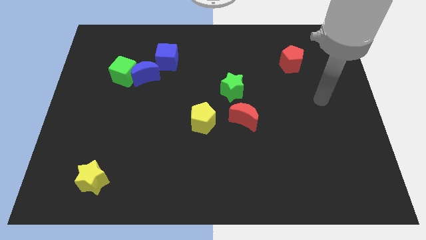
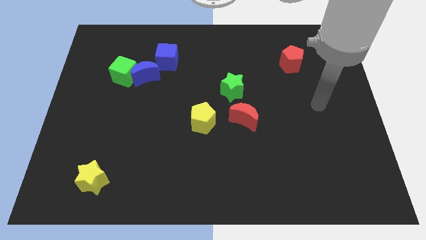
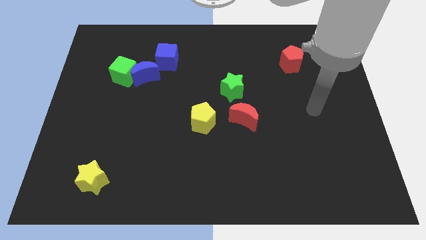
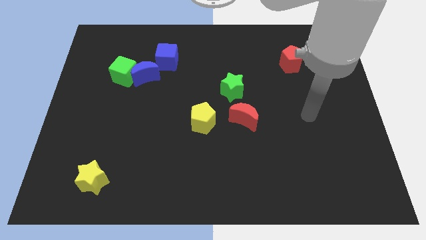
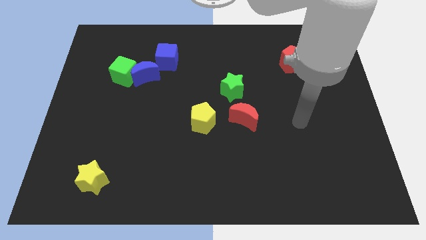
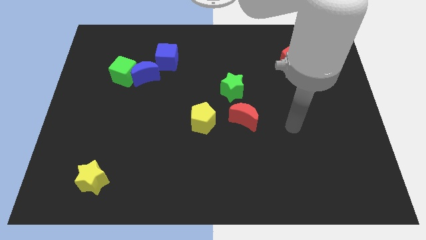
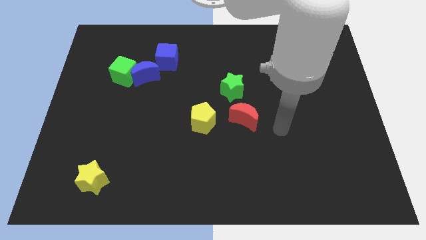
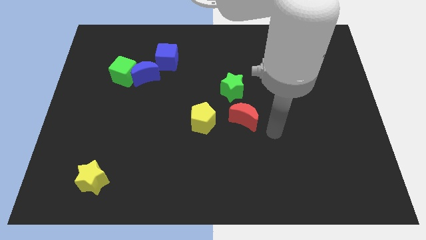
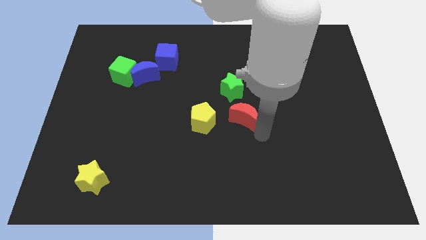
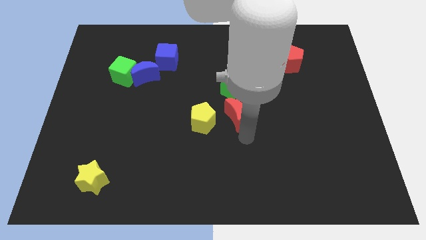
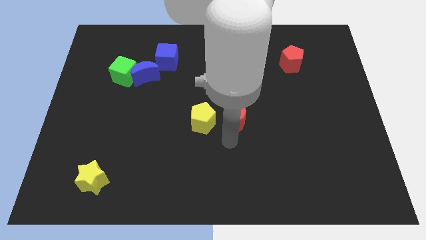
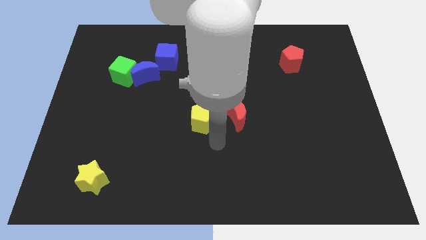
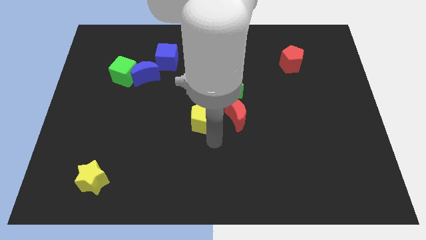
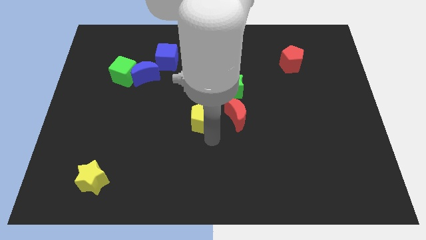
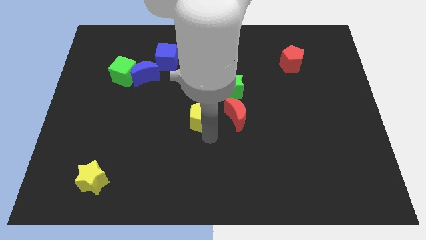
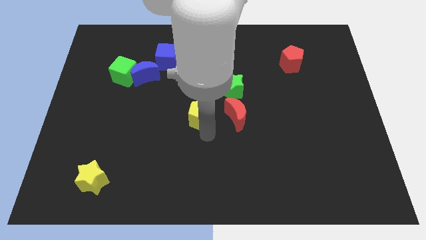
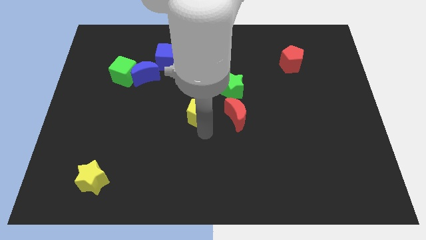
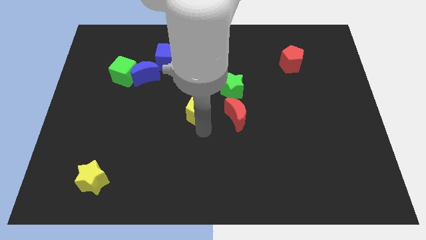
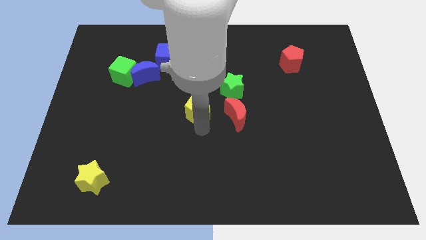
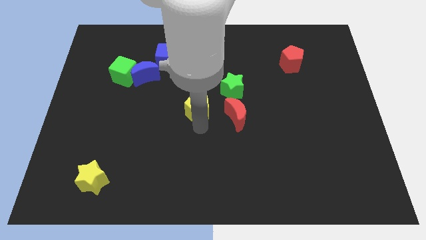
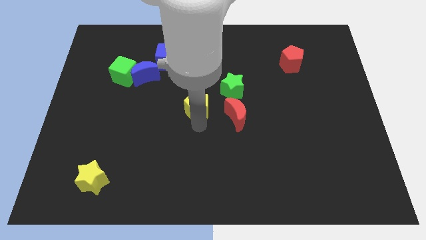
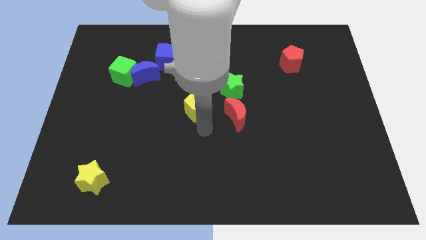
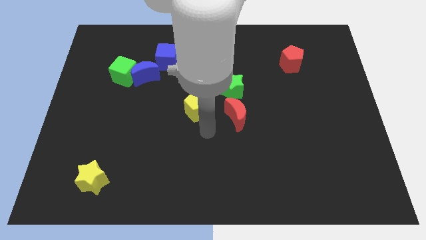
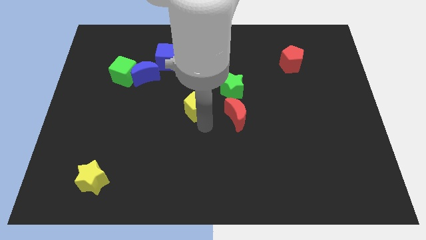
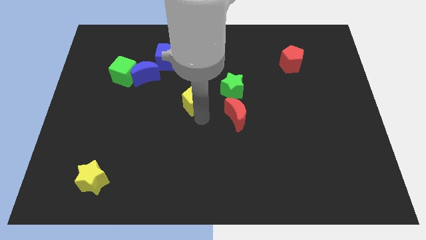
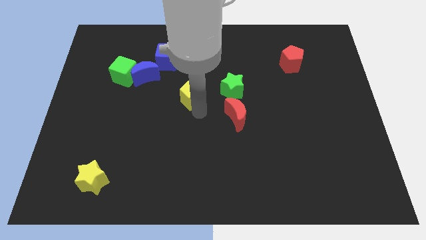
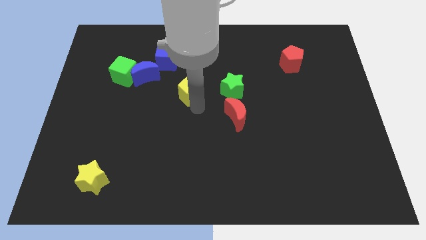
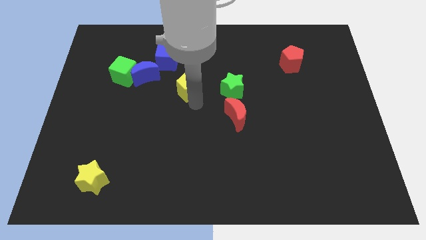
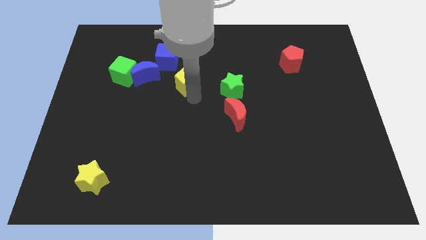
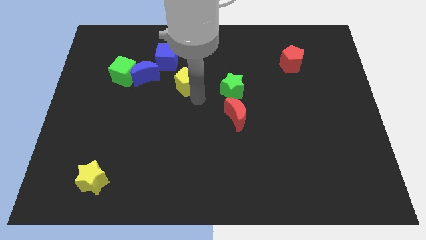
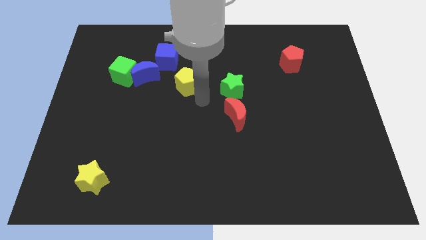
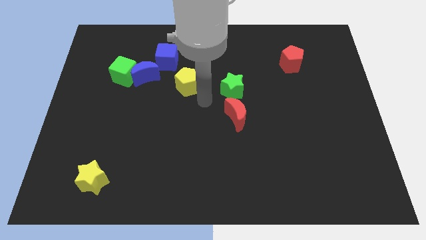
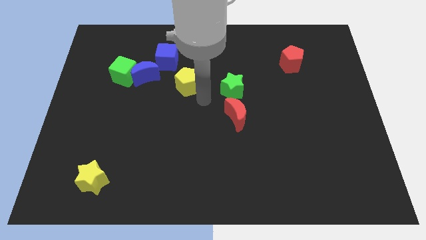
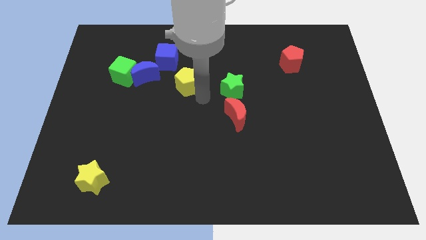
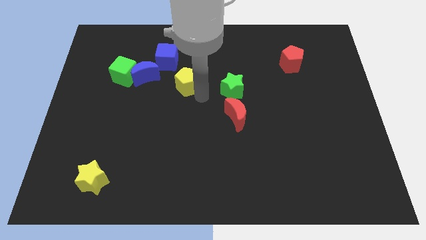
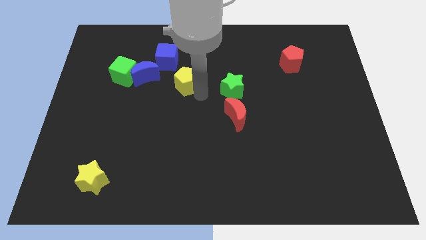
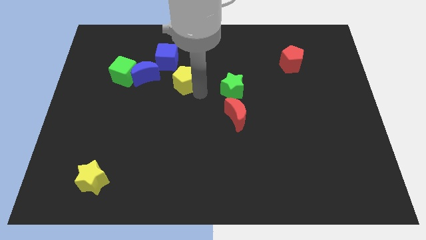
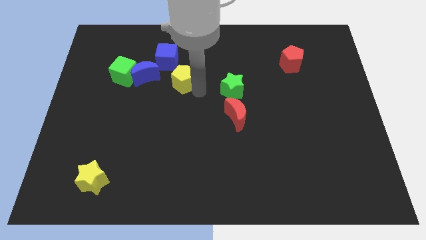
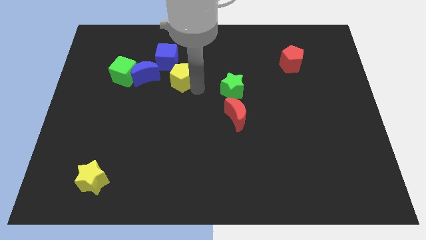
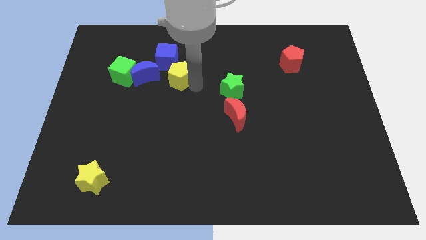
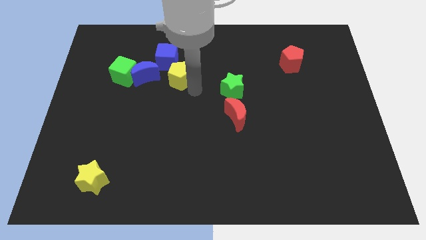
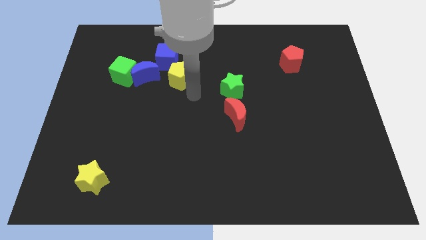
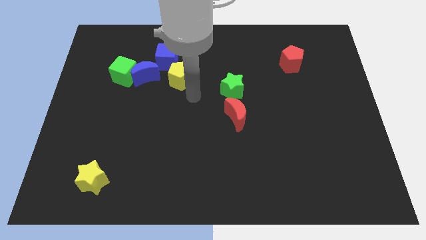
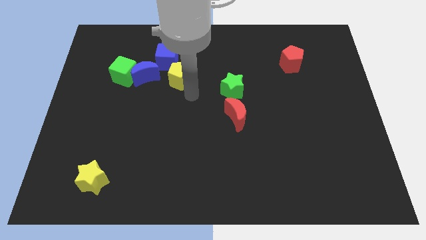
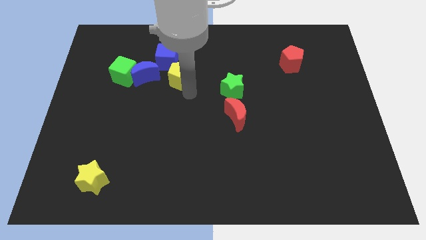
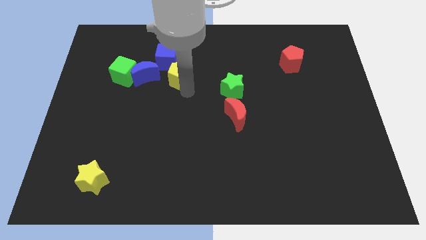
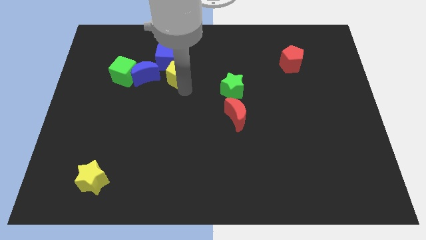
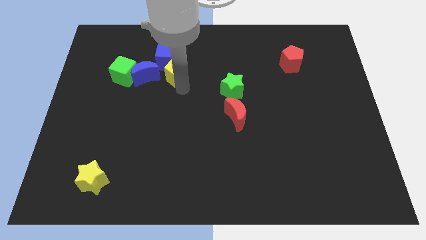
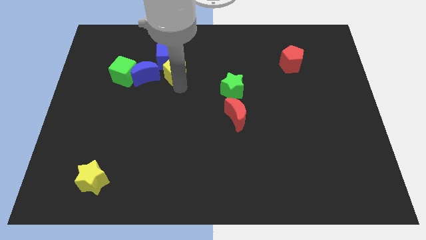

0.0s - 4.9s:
move the yellow pentagon to the blue cube

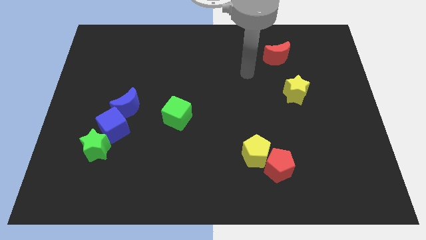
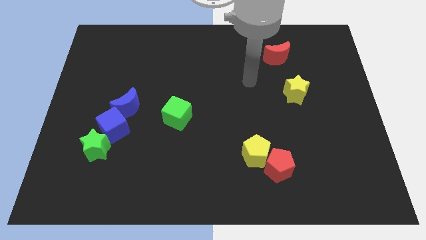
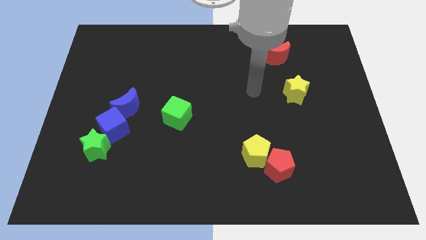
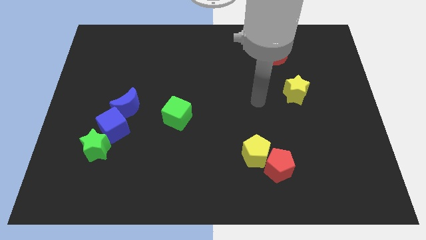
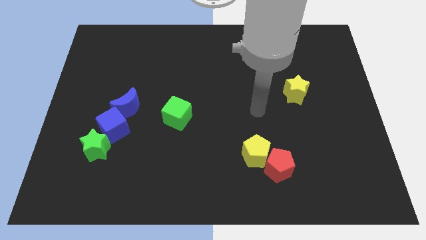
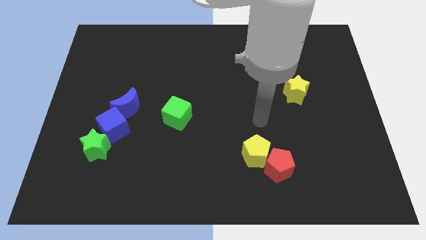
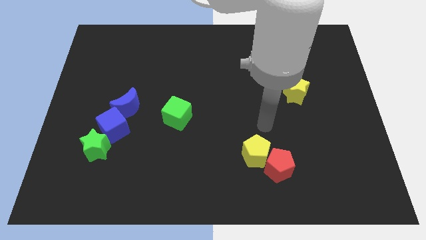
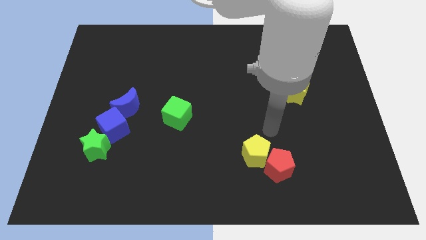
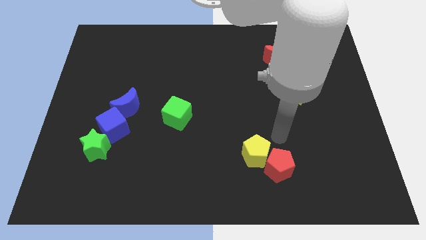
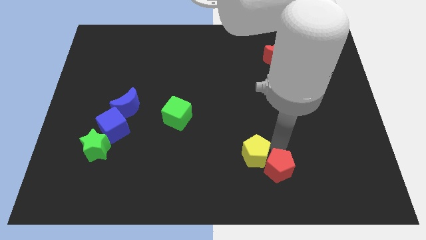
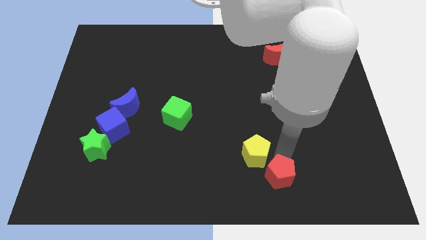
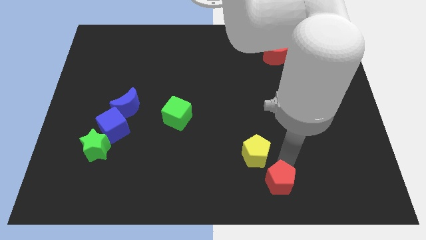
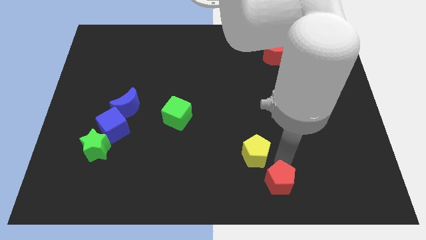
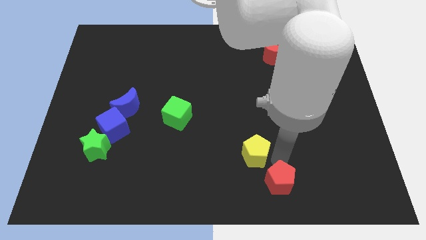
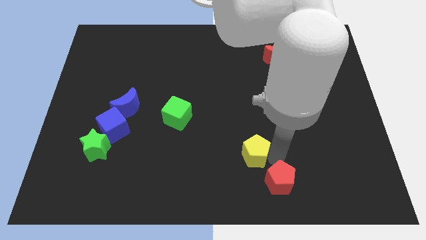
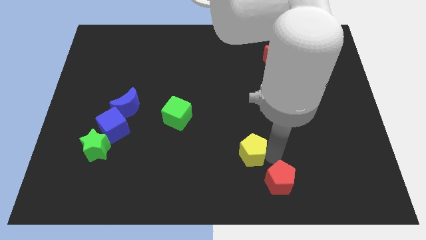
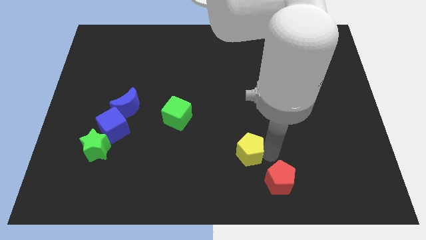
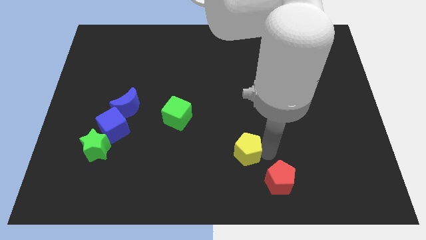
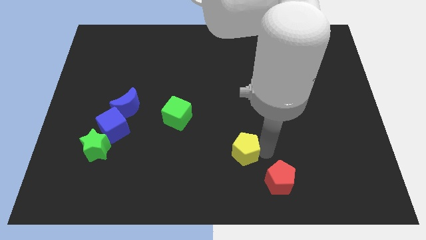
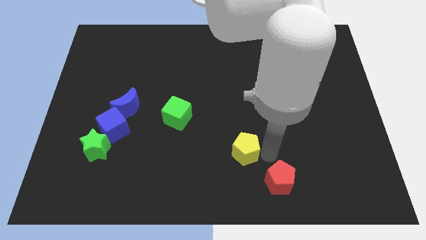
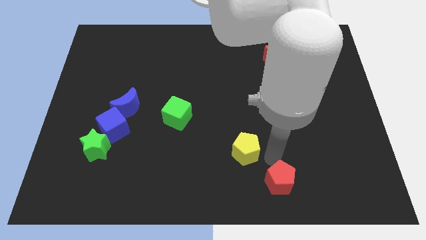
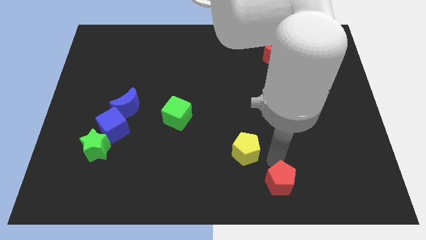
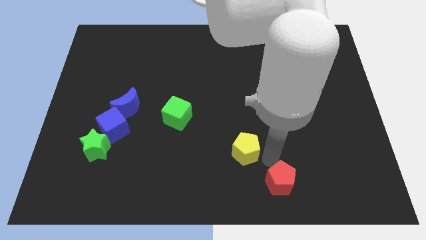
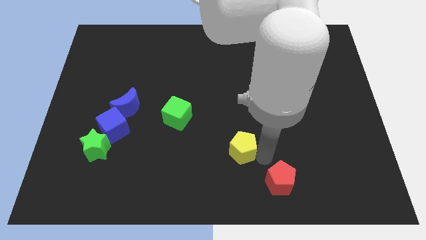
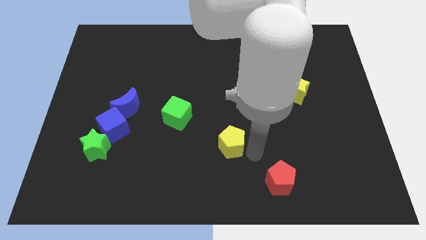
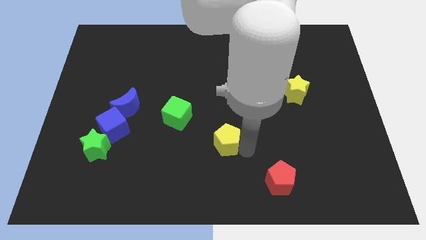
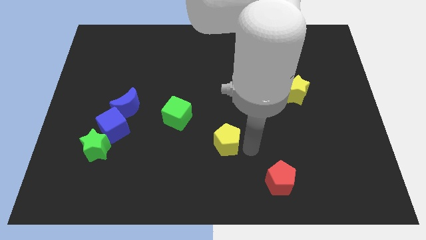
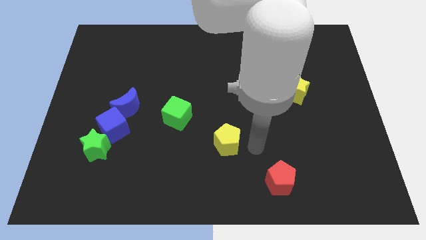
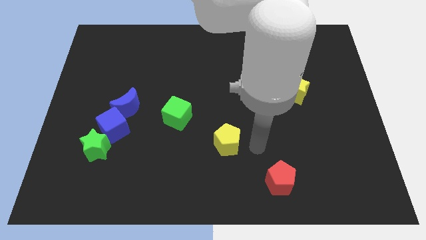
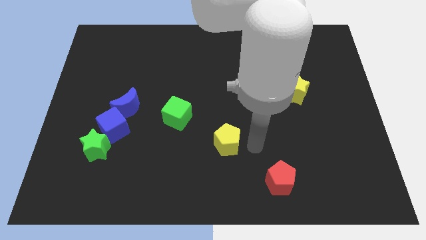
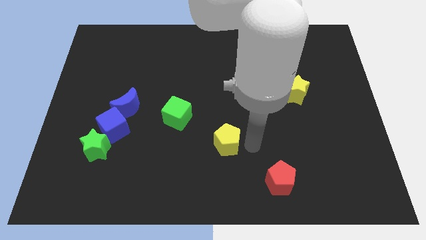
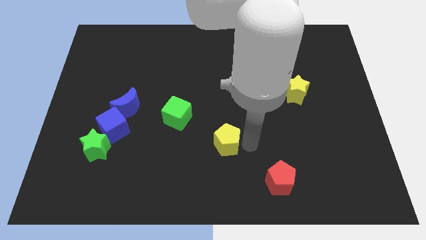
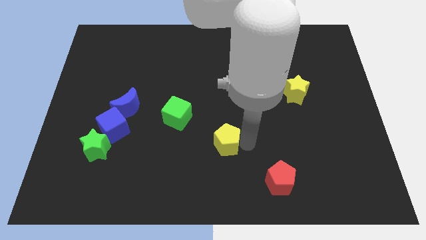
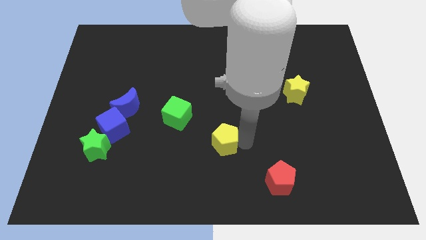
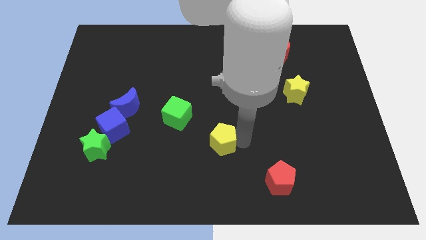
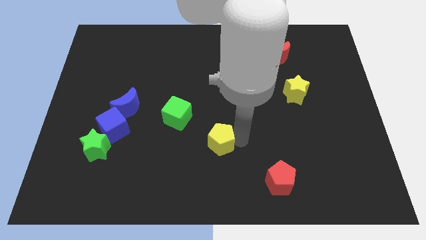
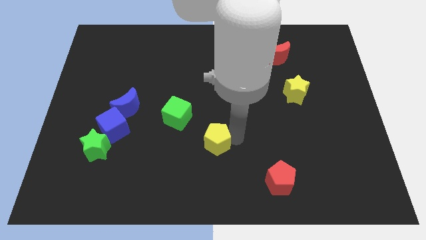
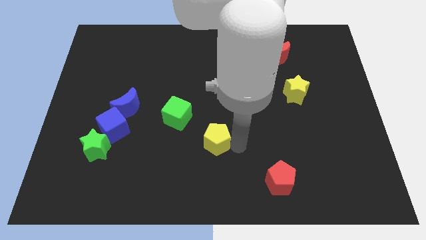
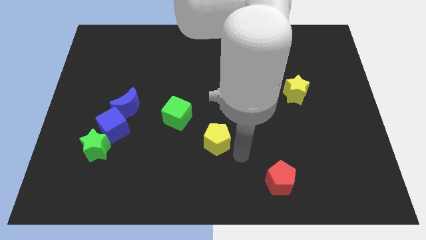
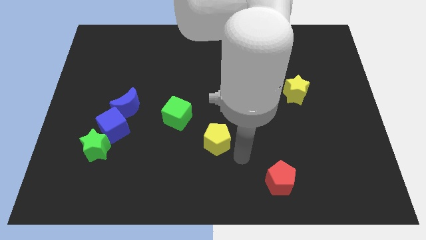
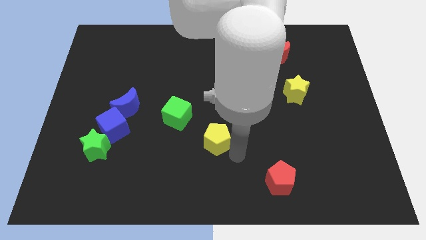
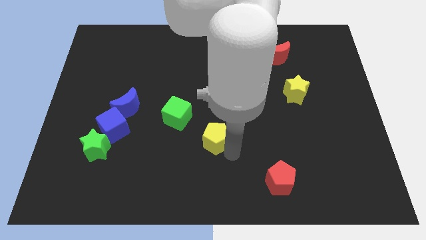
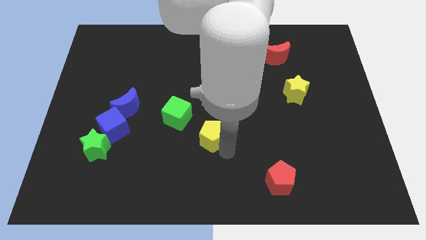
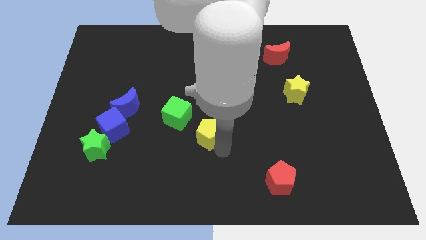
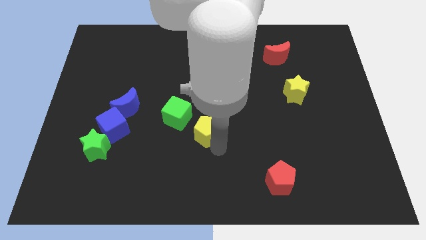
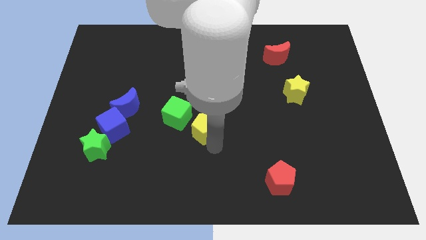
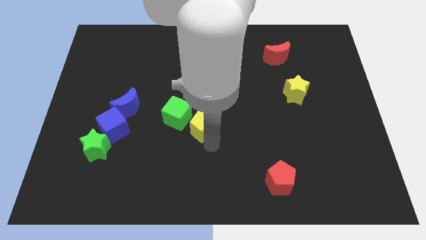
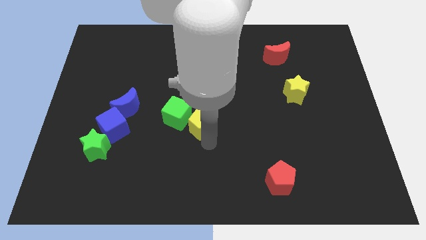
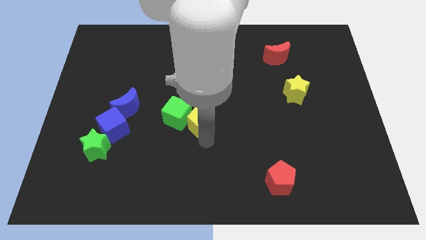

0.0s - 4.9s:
move the yellow pentagon towards the green cube
